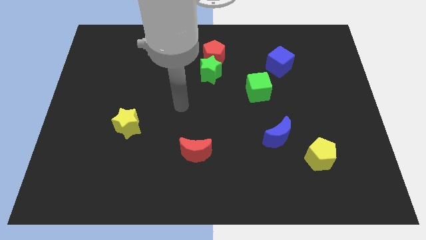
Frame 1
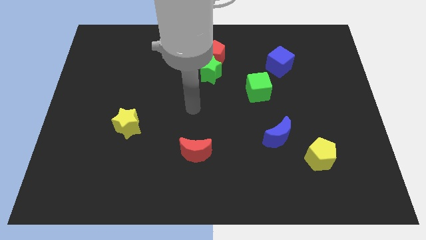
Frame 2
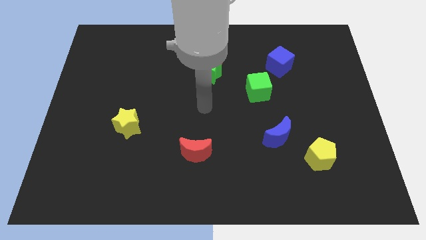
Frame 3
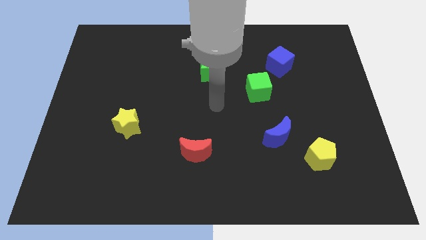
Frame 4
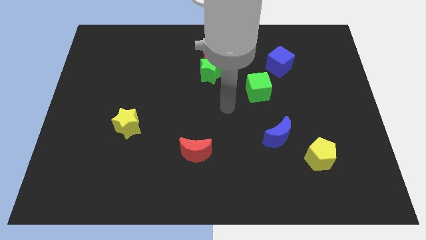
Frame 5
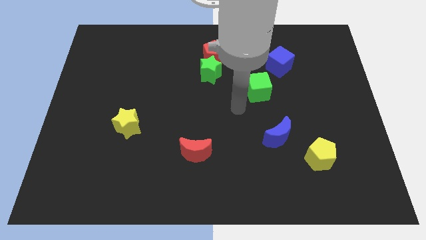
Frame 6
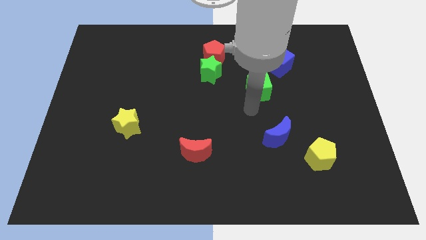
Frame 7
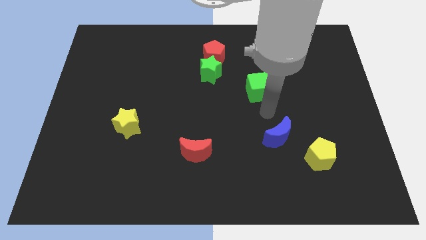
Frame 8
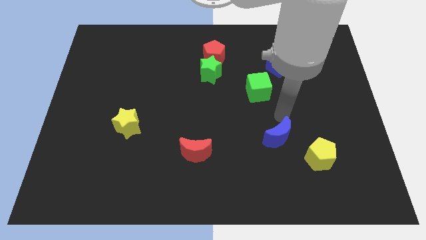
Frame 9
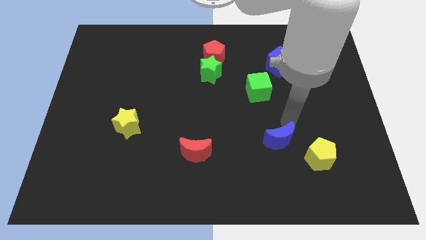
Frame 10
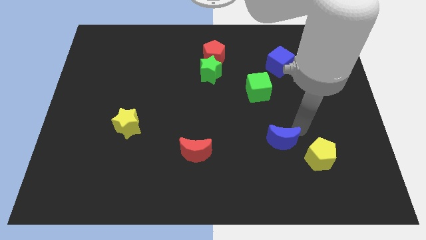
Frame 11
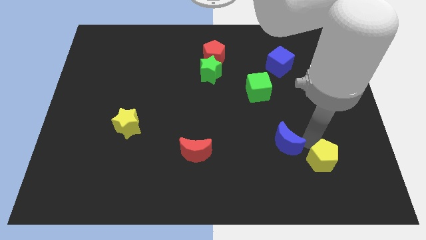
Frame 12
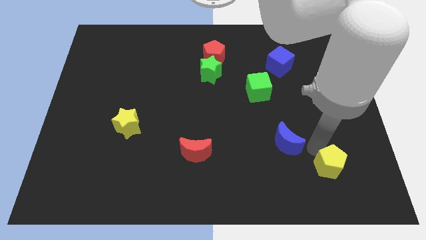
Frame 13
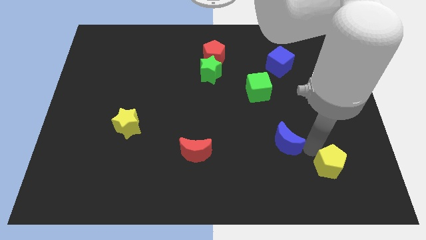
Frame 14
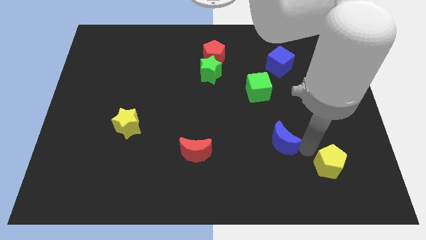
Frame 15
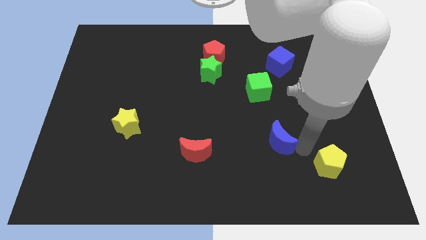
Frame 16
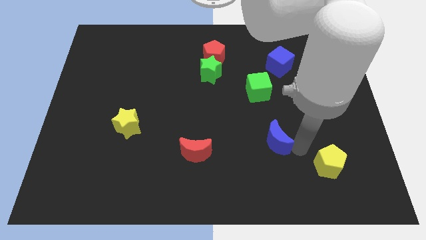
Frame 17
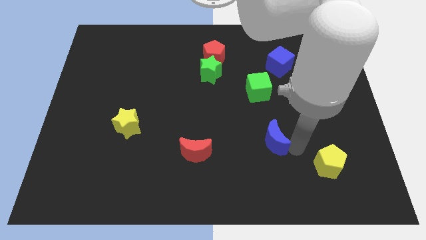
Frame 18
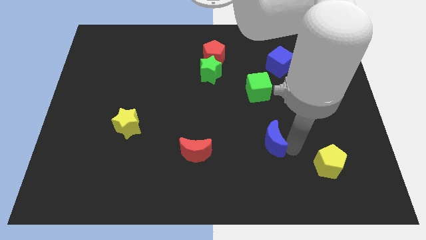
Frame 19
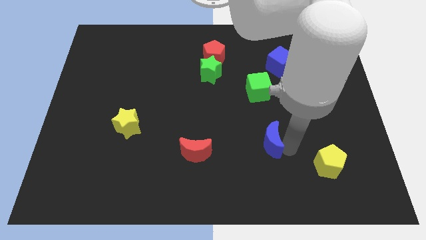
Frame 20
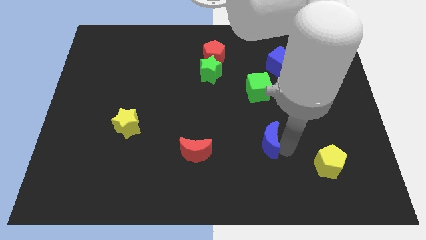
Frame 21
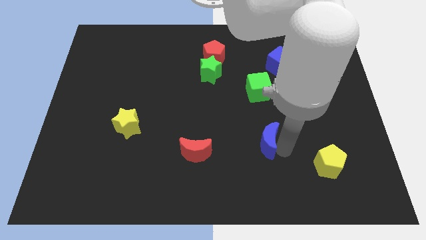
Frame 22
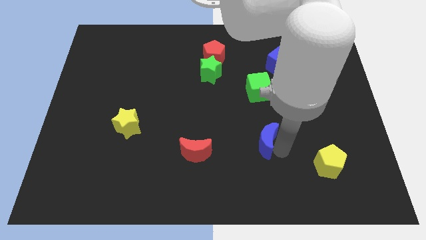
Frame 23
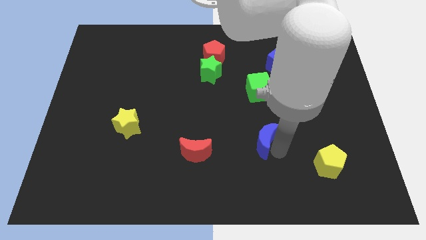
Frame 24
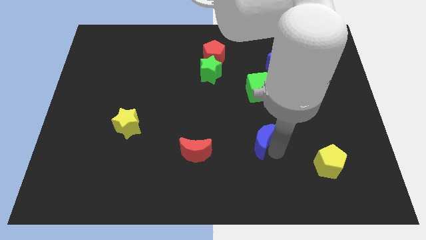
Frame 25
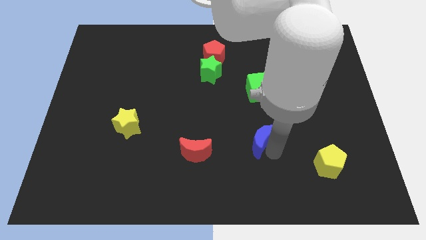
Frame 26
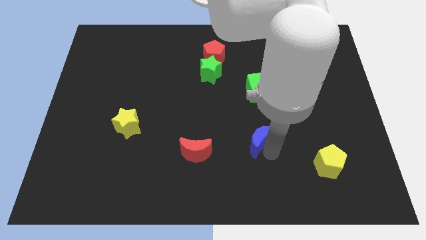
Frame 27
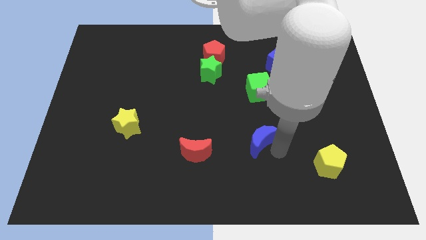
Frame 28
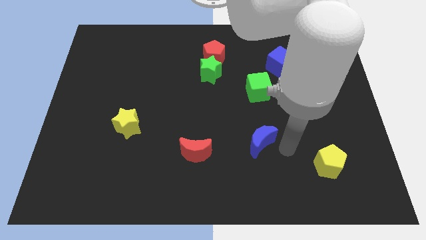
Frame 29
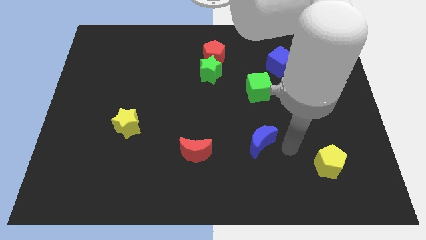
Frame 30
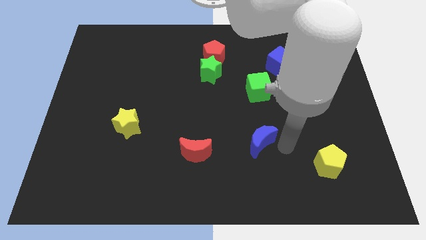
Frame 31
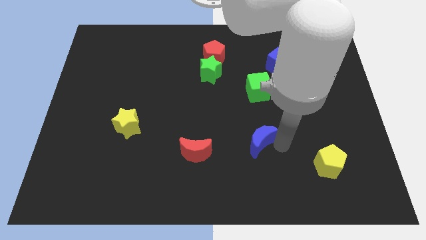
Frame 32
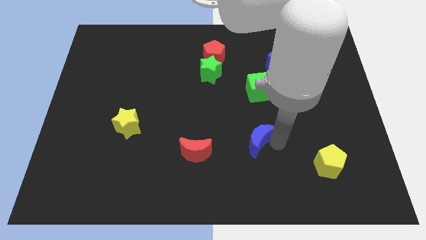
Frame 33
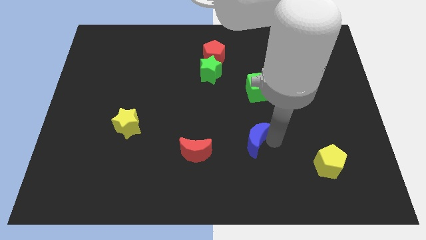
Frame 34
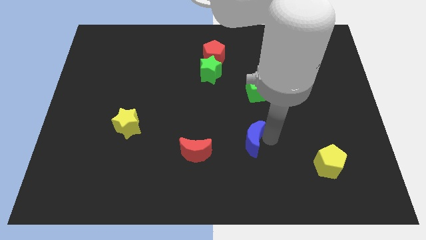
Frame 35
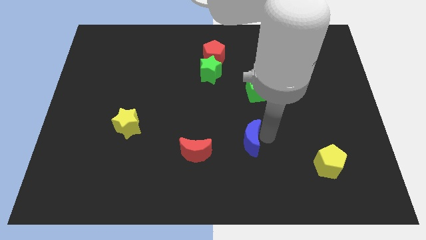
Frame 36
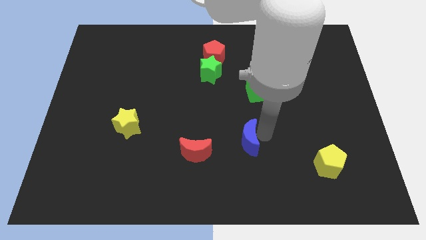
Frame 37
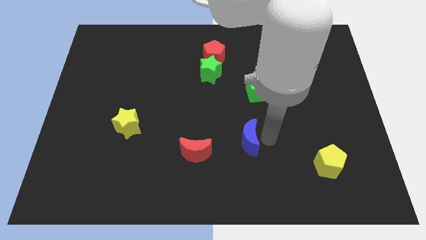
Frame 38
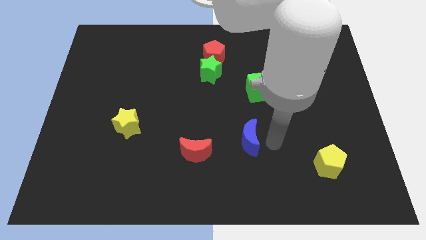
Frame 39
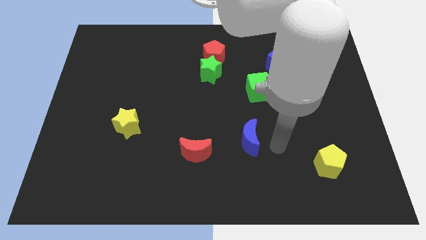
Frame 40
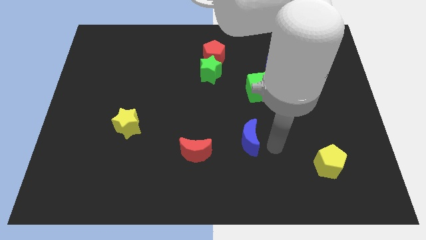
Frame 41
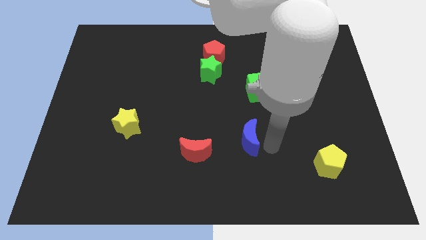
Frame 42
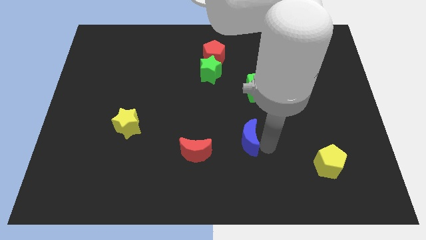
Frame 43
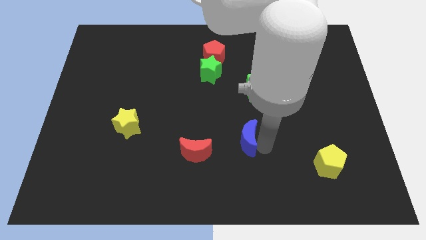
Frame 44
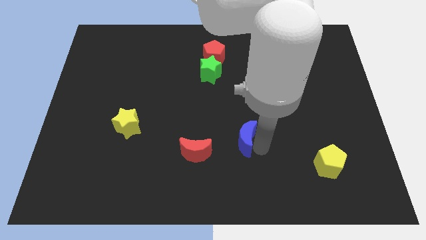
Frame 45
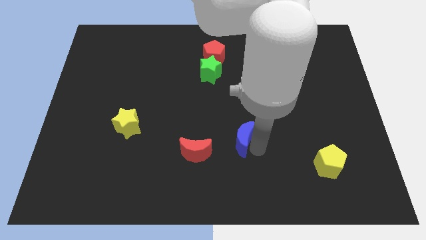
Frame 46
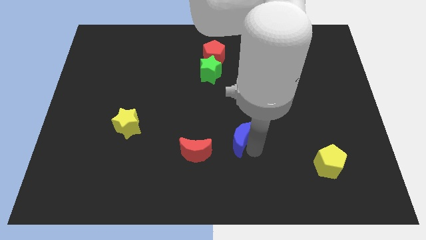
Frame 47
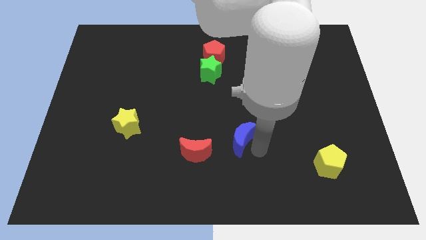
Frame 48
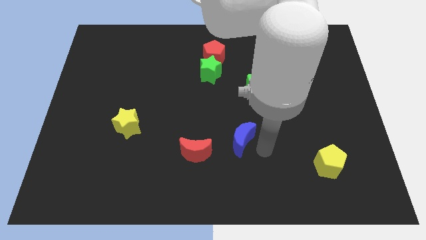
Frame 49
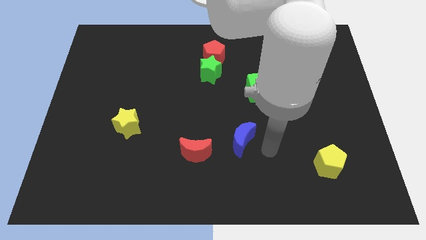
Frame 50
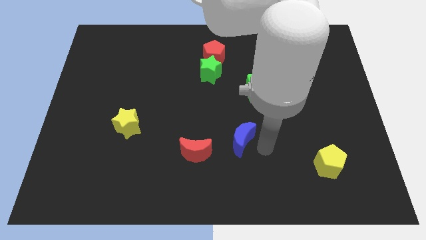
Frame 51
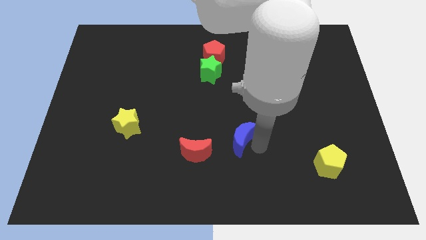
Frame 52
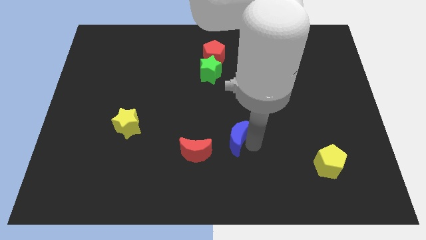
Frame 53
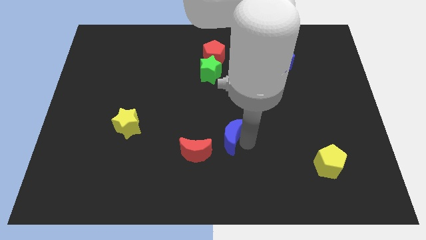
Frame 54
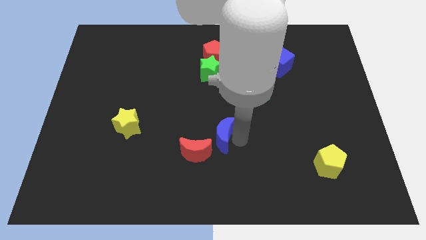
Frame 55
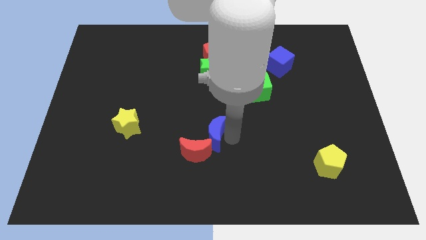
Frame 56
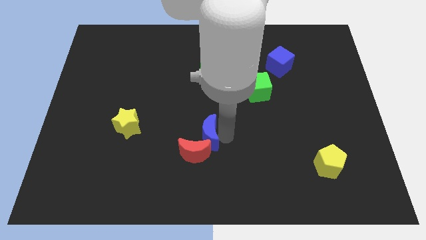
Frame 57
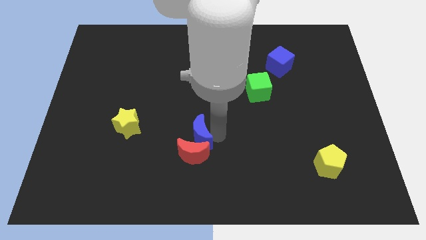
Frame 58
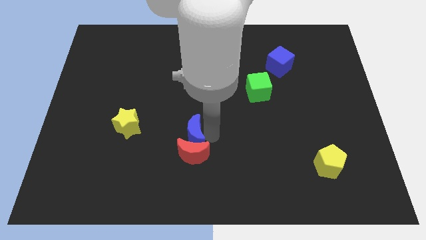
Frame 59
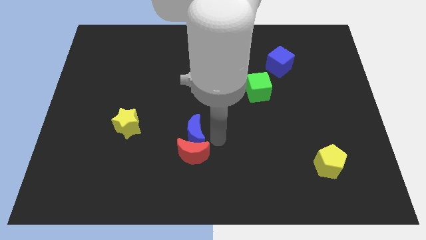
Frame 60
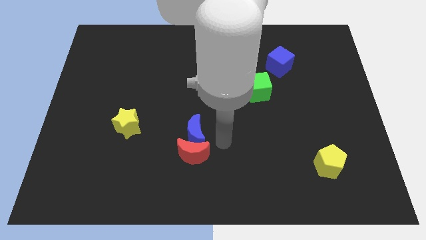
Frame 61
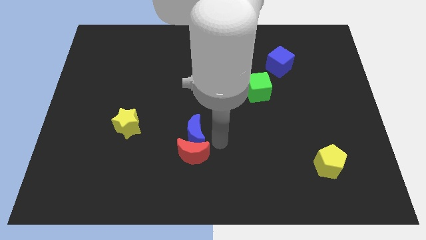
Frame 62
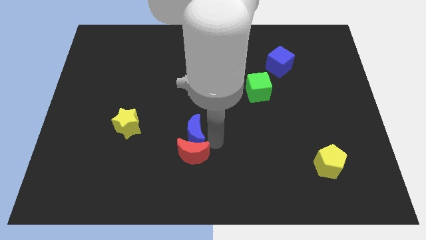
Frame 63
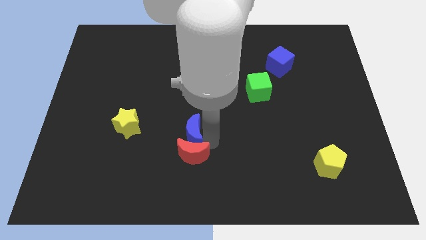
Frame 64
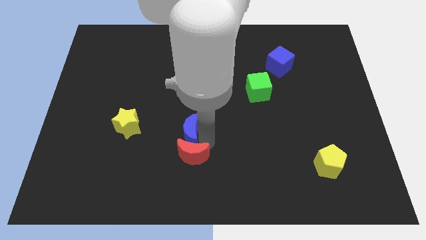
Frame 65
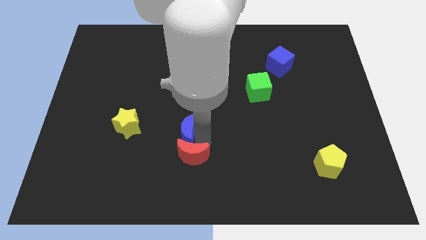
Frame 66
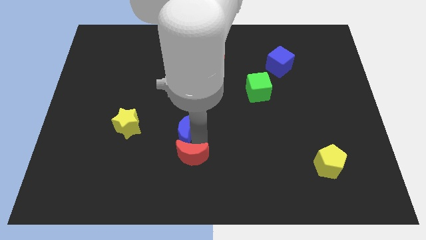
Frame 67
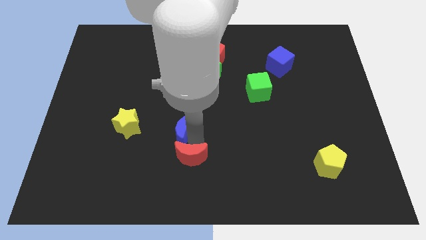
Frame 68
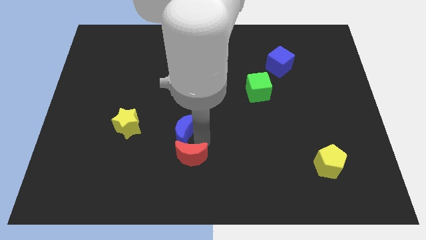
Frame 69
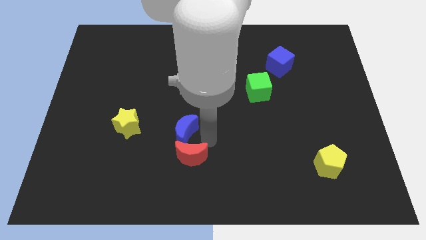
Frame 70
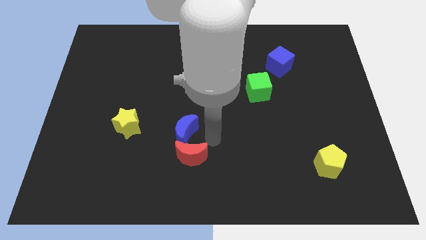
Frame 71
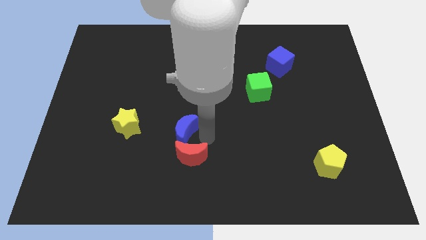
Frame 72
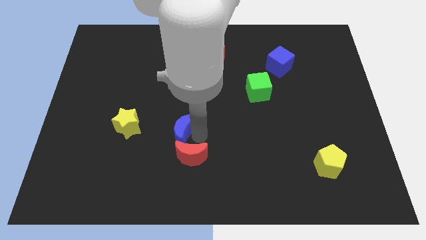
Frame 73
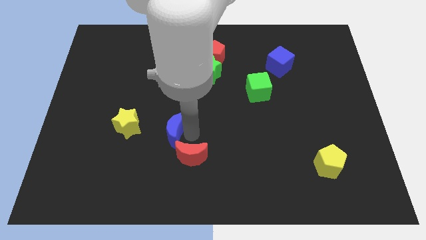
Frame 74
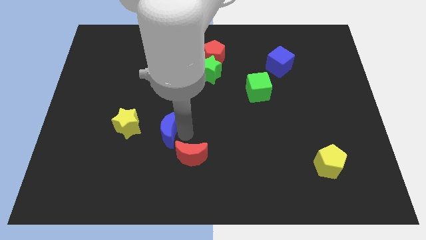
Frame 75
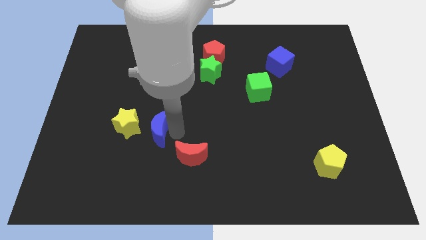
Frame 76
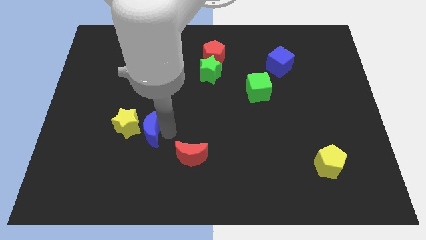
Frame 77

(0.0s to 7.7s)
slide the blue moon to the yellow star
